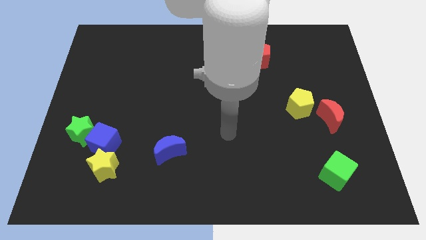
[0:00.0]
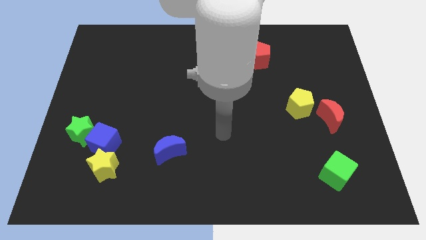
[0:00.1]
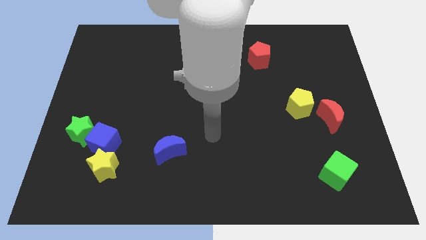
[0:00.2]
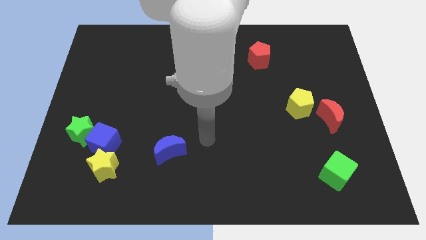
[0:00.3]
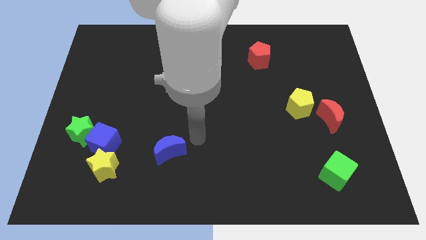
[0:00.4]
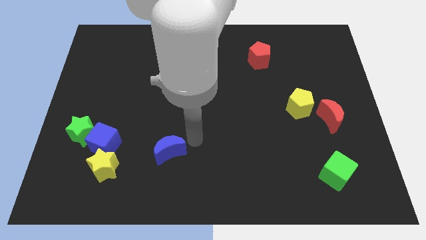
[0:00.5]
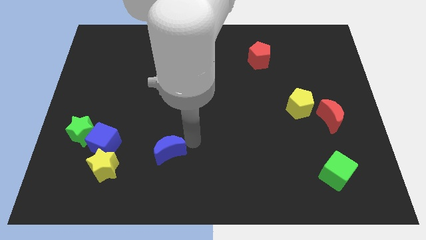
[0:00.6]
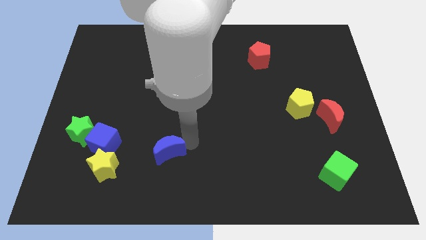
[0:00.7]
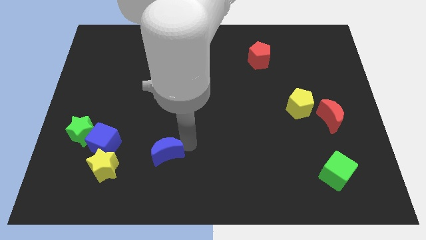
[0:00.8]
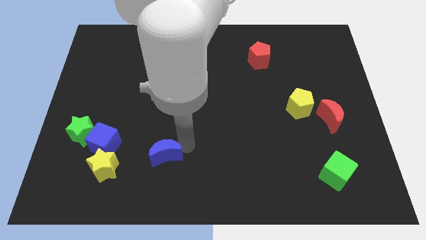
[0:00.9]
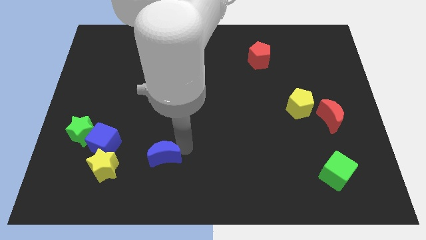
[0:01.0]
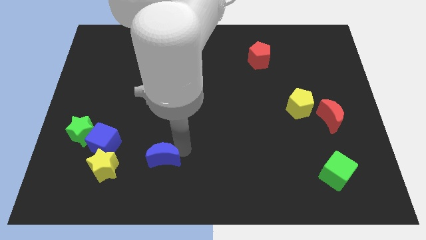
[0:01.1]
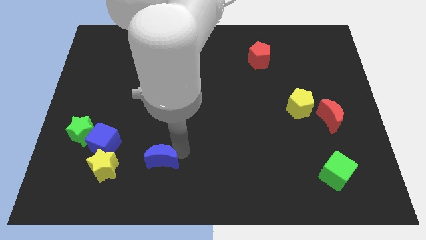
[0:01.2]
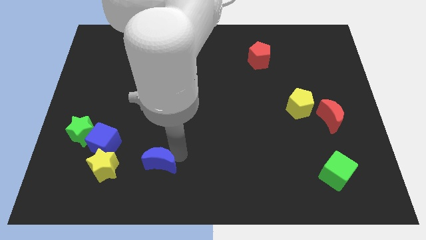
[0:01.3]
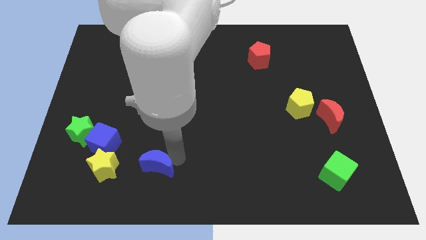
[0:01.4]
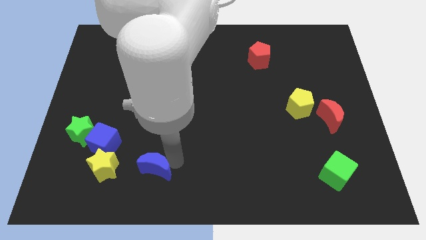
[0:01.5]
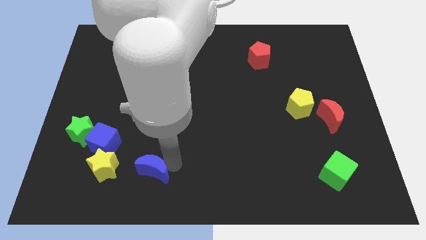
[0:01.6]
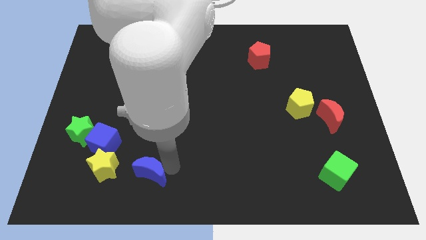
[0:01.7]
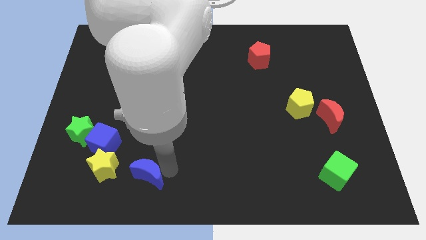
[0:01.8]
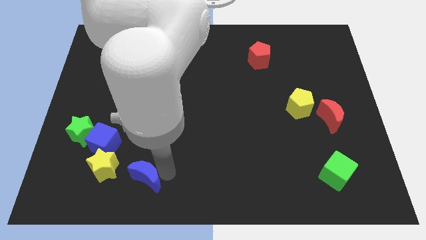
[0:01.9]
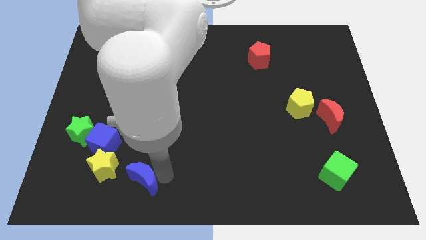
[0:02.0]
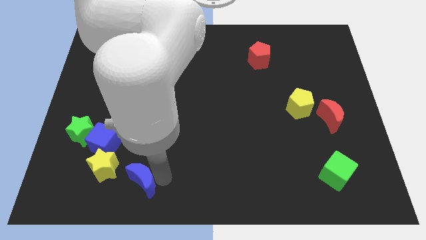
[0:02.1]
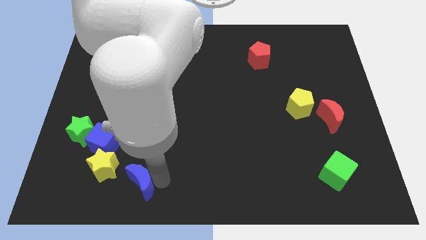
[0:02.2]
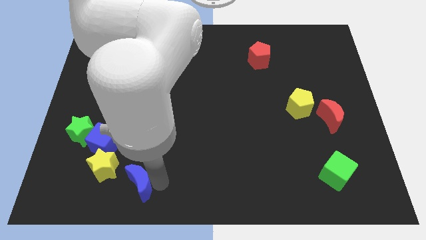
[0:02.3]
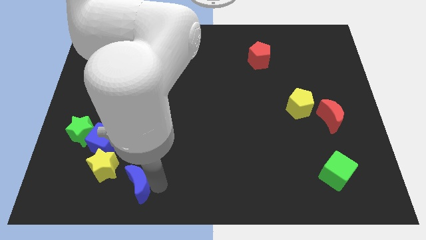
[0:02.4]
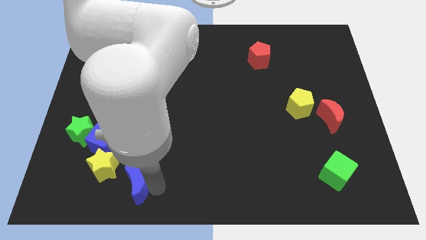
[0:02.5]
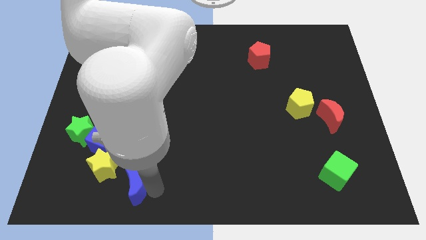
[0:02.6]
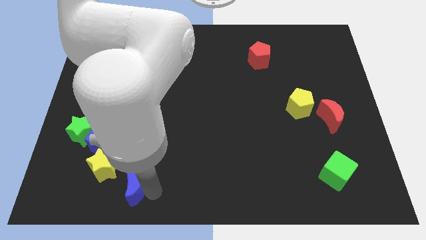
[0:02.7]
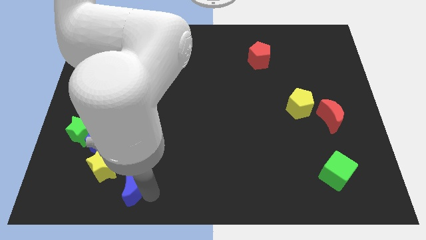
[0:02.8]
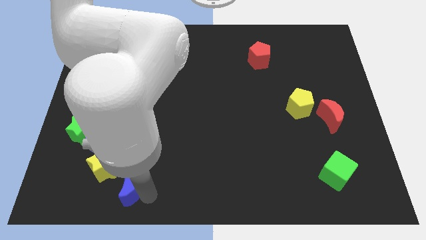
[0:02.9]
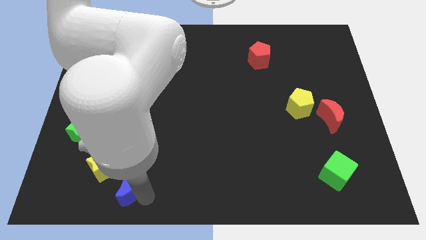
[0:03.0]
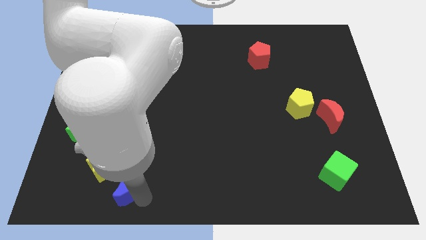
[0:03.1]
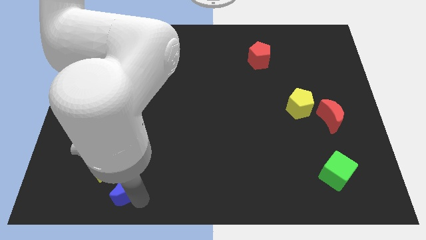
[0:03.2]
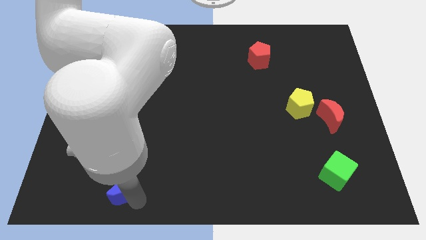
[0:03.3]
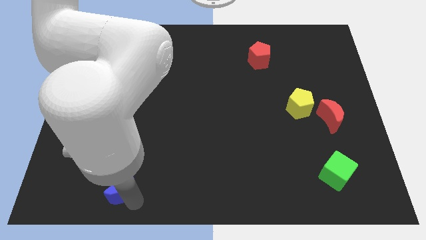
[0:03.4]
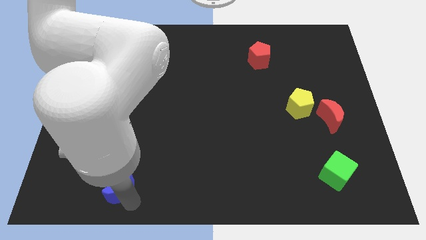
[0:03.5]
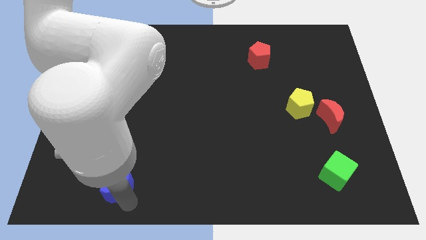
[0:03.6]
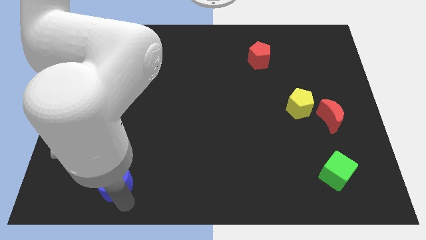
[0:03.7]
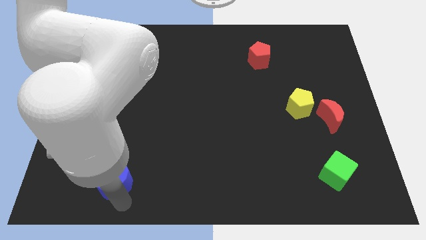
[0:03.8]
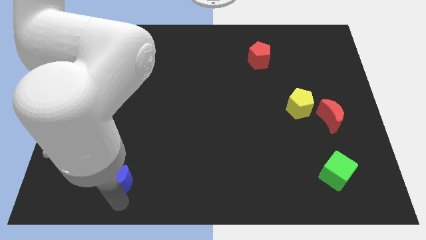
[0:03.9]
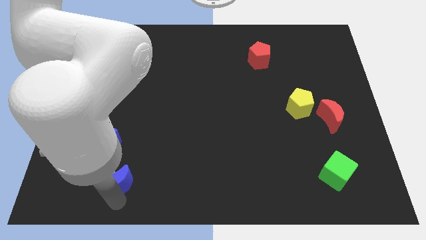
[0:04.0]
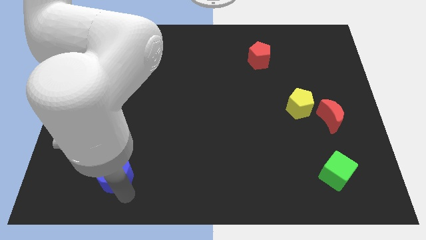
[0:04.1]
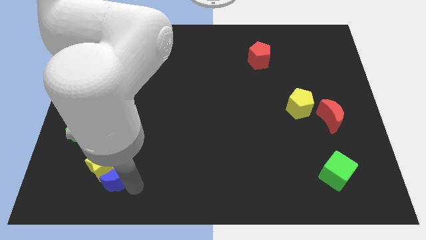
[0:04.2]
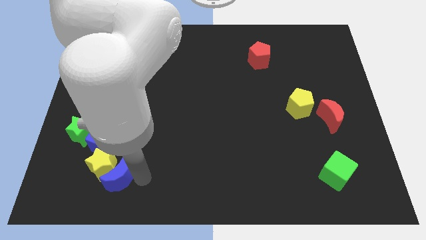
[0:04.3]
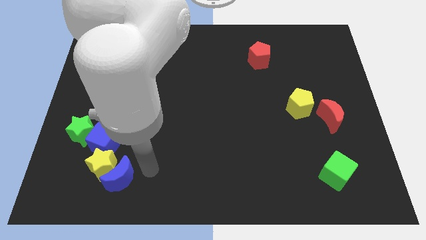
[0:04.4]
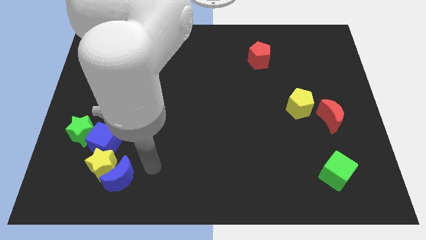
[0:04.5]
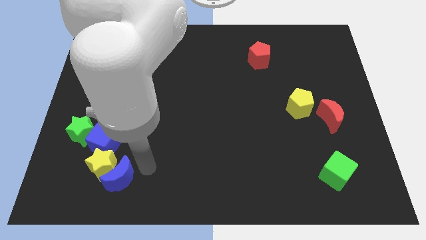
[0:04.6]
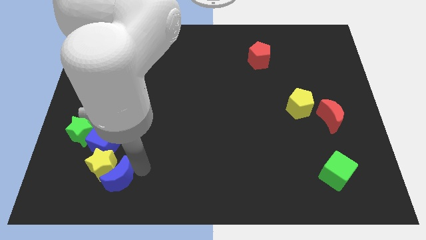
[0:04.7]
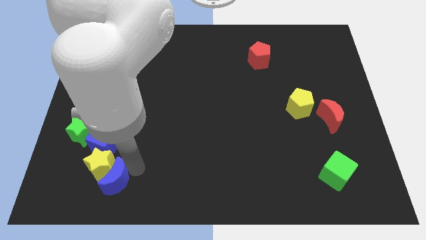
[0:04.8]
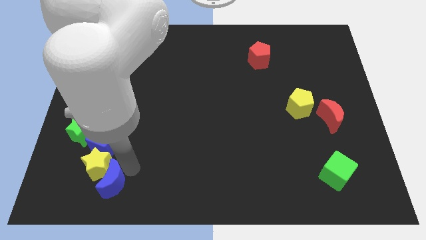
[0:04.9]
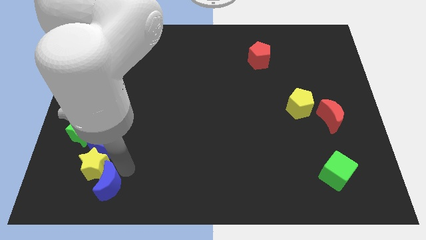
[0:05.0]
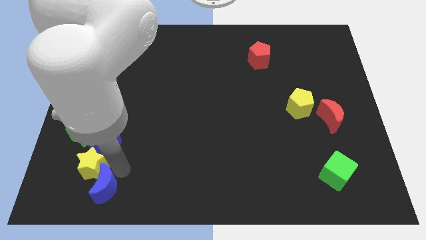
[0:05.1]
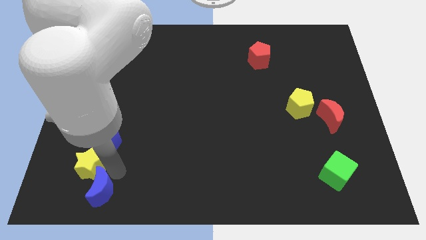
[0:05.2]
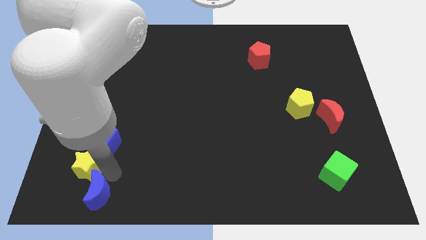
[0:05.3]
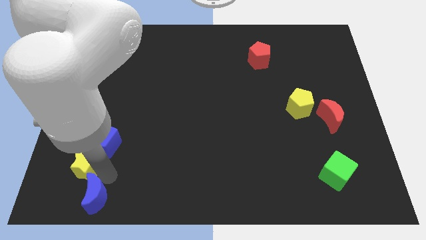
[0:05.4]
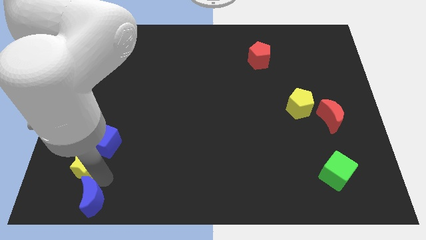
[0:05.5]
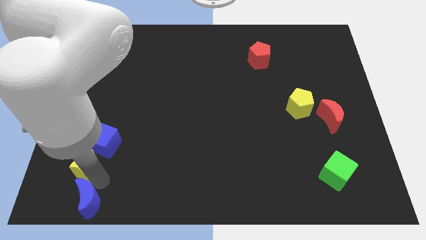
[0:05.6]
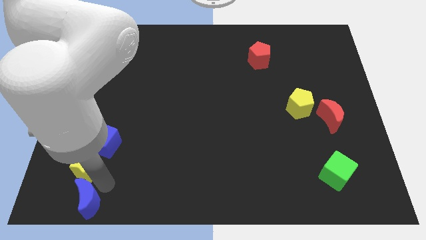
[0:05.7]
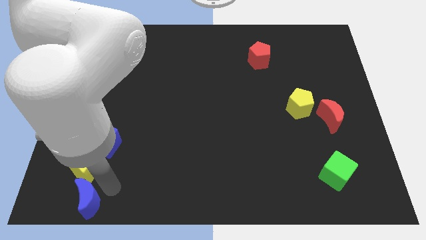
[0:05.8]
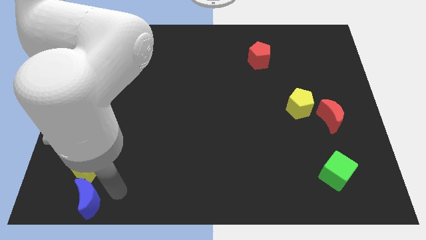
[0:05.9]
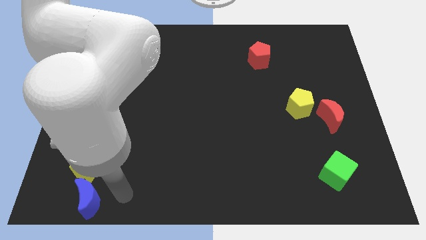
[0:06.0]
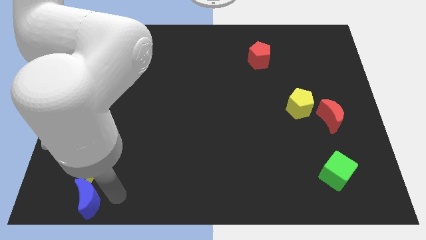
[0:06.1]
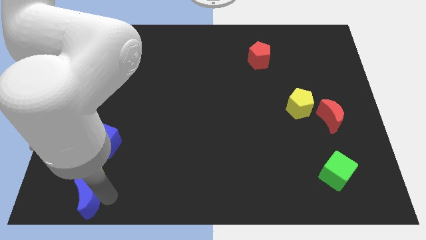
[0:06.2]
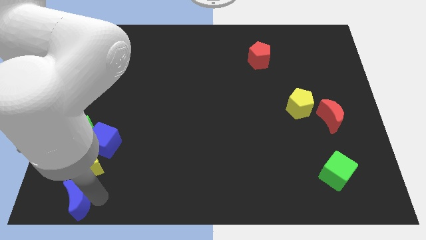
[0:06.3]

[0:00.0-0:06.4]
push the blue moon to the lower left corner

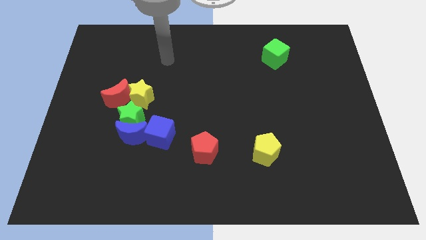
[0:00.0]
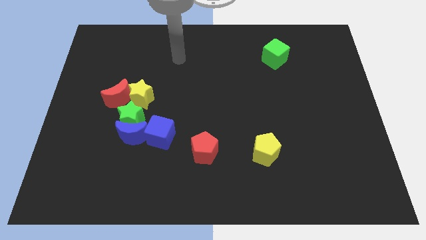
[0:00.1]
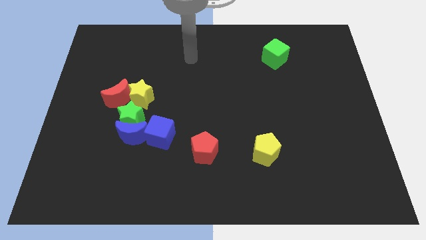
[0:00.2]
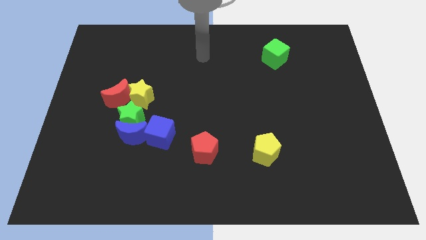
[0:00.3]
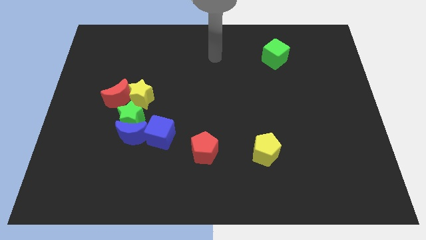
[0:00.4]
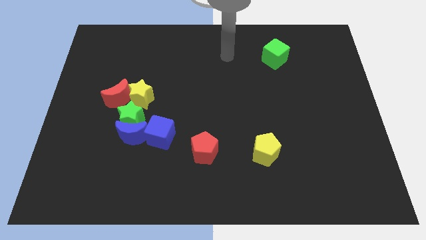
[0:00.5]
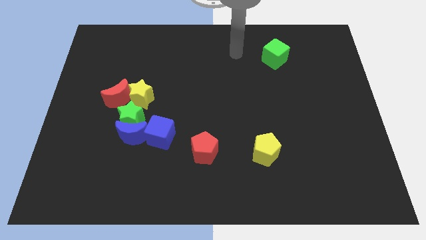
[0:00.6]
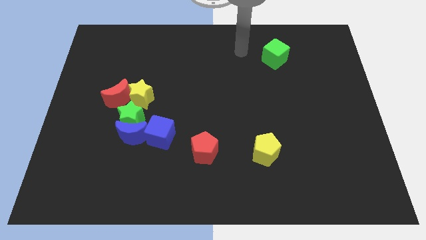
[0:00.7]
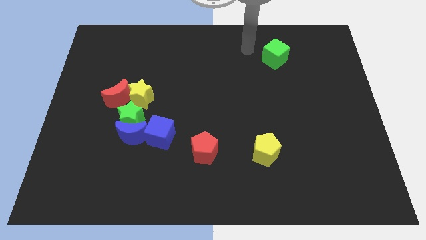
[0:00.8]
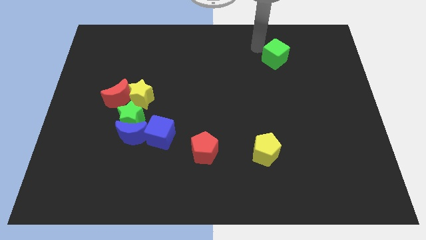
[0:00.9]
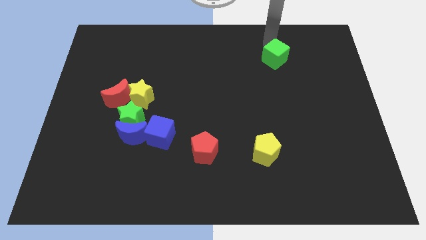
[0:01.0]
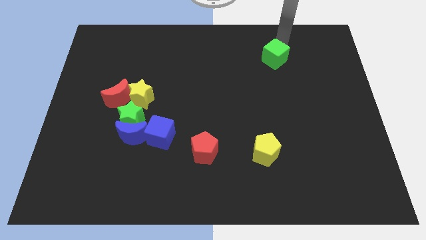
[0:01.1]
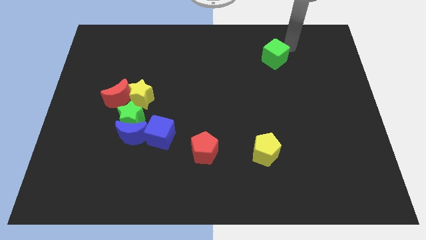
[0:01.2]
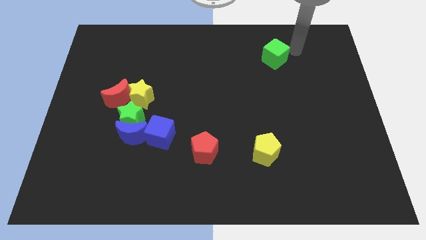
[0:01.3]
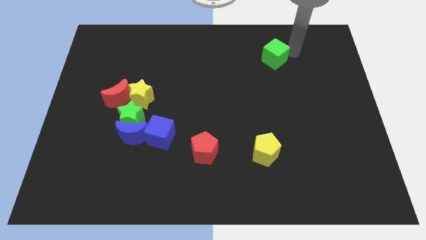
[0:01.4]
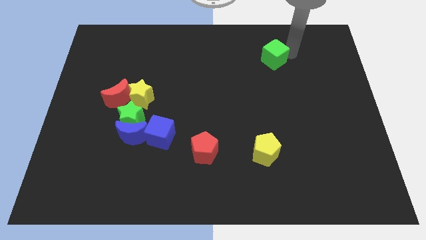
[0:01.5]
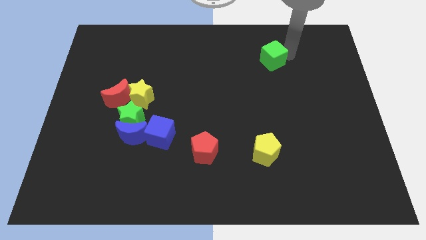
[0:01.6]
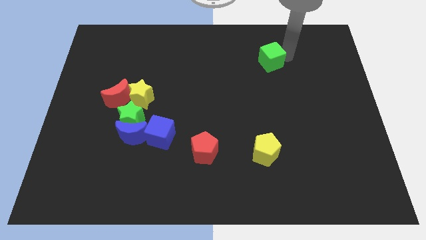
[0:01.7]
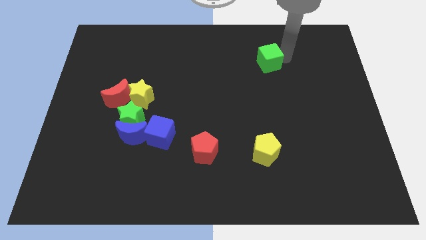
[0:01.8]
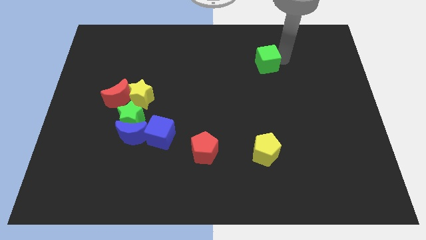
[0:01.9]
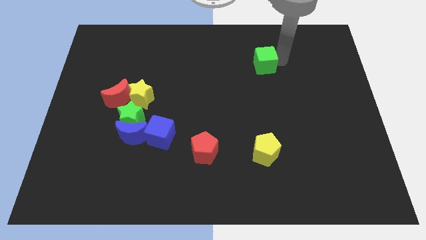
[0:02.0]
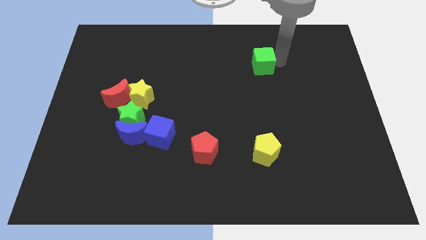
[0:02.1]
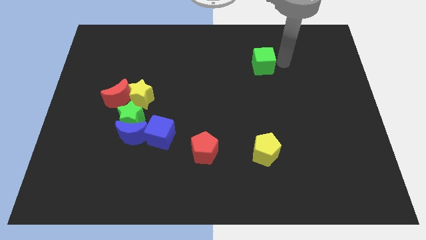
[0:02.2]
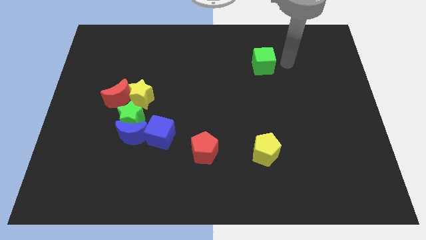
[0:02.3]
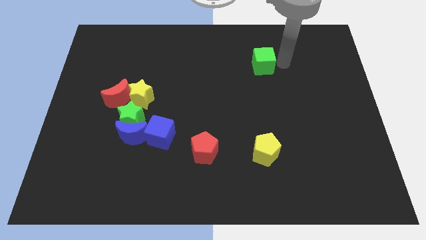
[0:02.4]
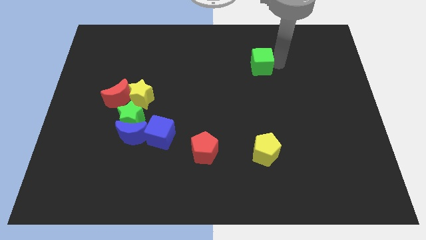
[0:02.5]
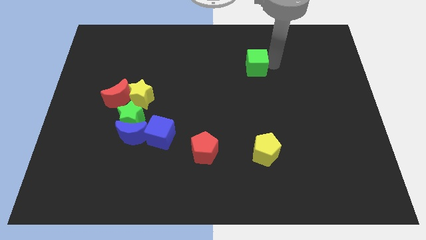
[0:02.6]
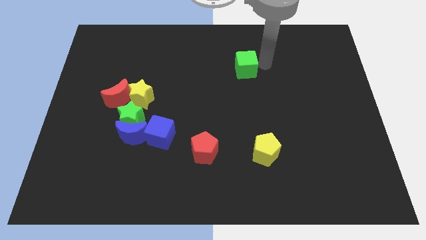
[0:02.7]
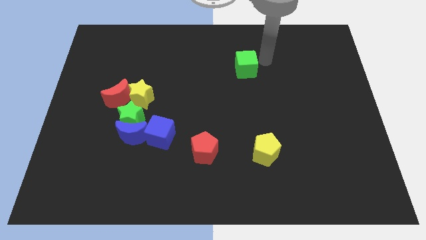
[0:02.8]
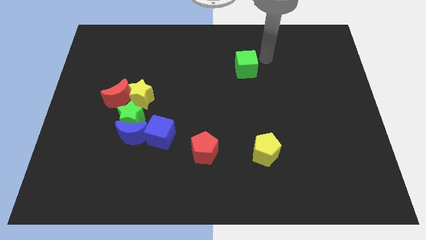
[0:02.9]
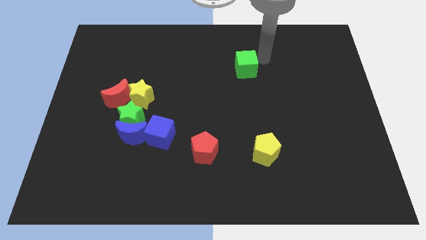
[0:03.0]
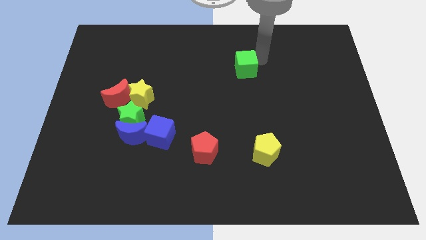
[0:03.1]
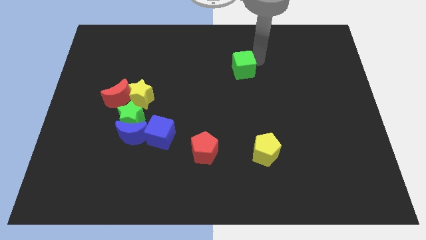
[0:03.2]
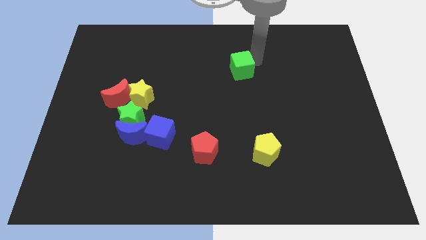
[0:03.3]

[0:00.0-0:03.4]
move the green cube to the middle
